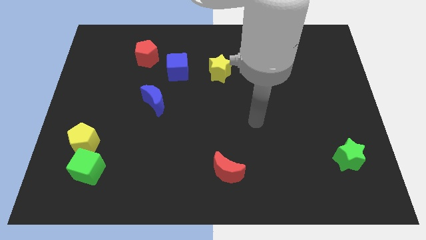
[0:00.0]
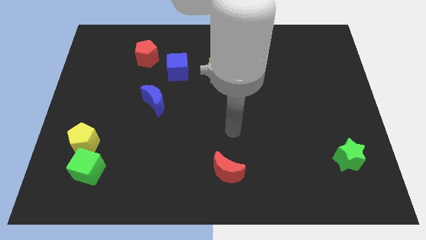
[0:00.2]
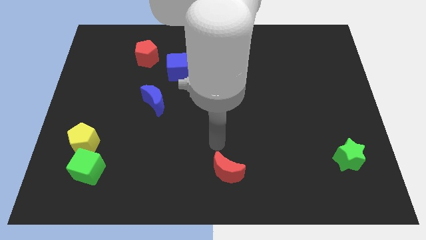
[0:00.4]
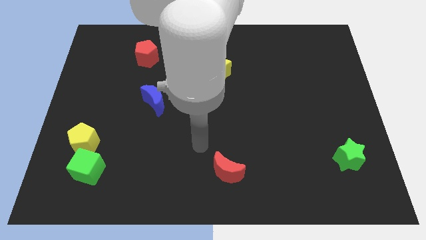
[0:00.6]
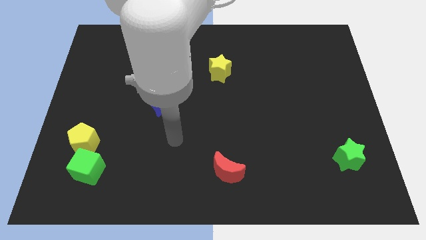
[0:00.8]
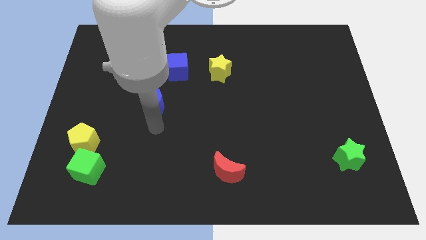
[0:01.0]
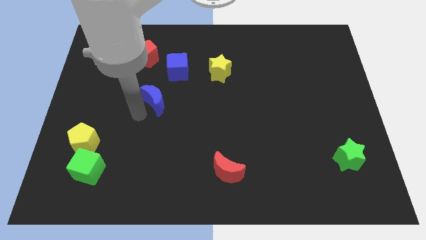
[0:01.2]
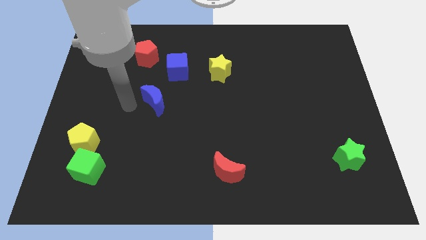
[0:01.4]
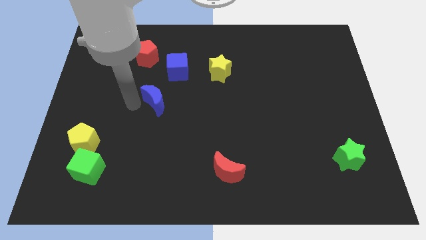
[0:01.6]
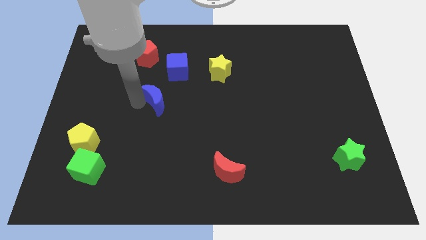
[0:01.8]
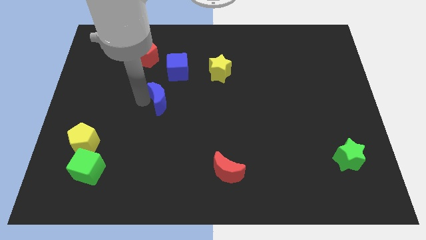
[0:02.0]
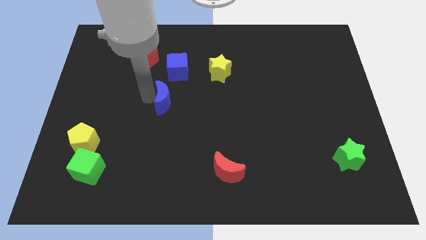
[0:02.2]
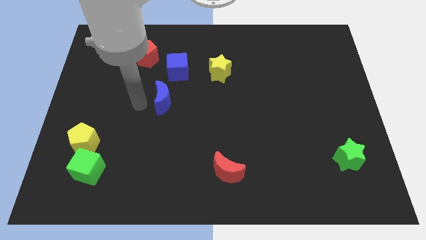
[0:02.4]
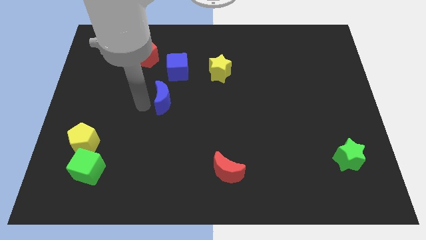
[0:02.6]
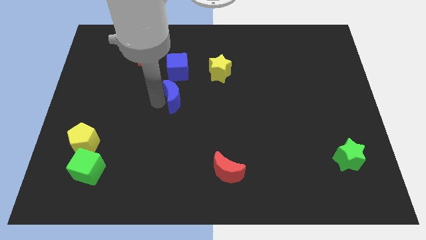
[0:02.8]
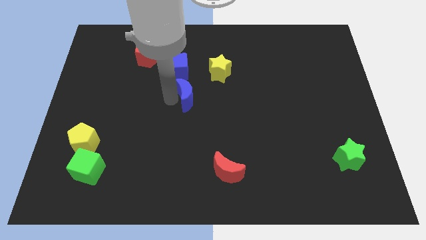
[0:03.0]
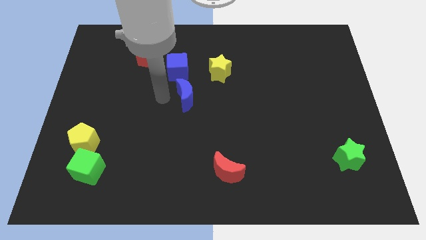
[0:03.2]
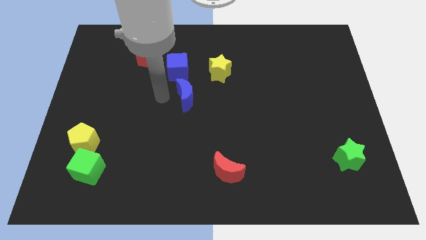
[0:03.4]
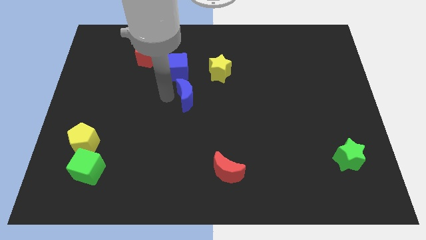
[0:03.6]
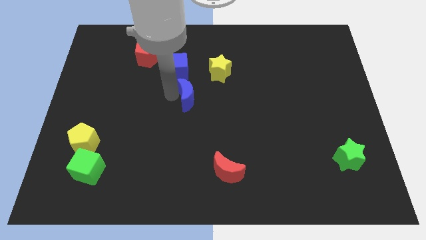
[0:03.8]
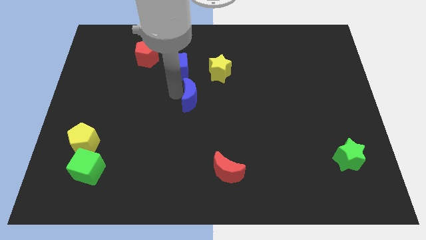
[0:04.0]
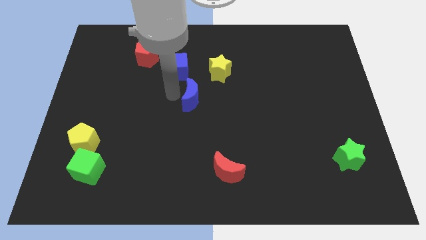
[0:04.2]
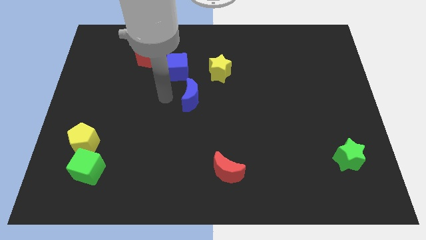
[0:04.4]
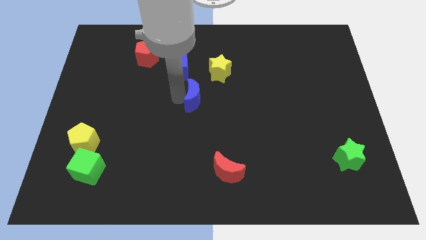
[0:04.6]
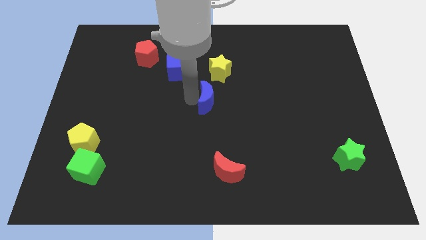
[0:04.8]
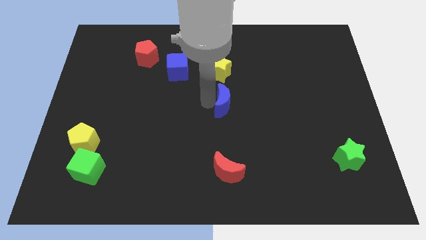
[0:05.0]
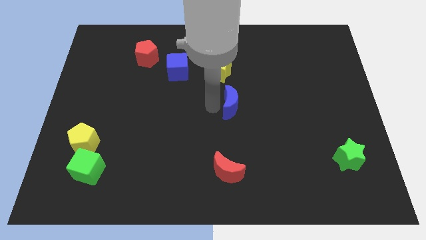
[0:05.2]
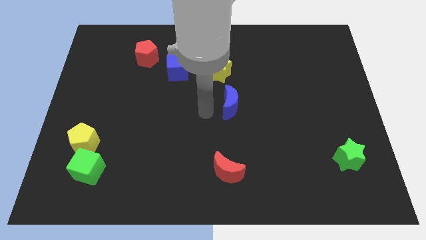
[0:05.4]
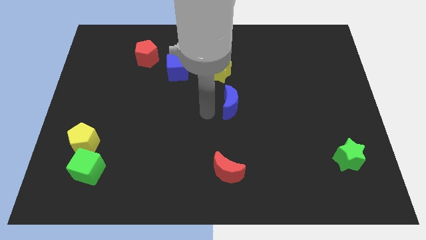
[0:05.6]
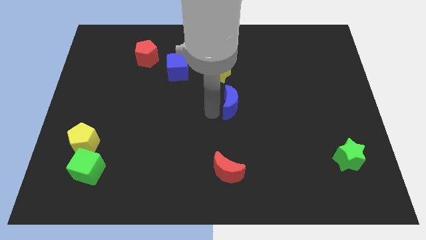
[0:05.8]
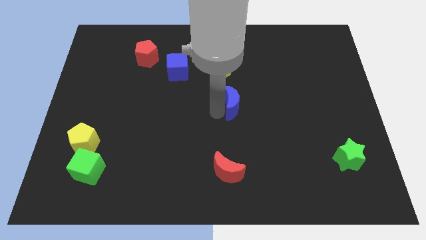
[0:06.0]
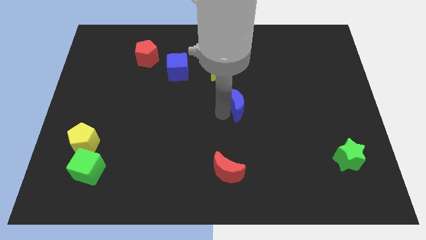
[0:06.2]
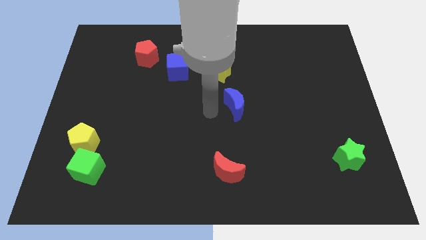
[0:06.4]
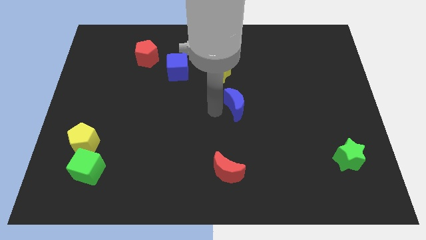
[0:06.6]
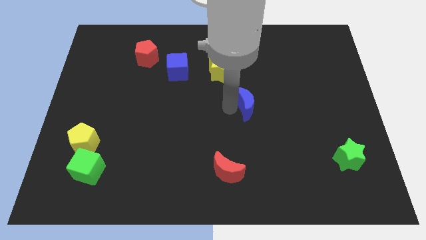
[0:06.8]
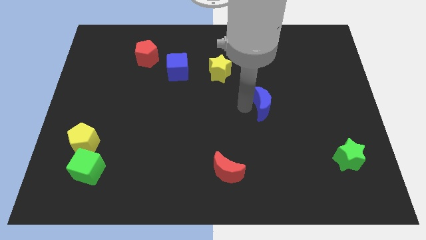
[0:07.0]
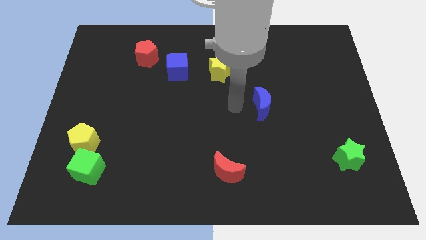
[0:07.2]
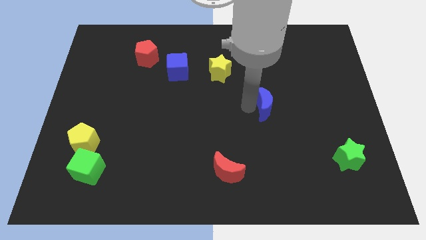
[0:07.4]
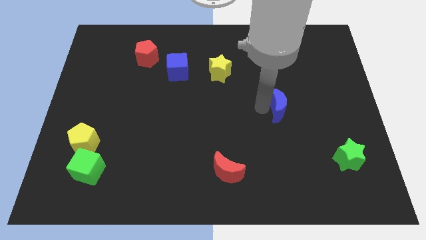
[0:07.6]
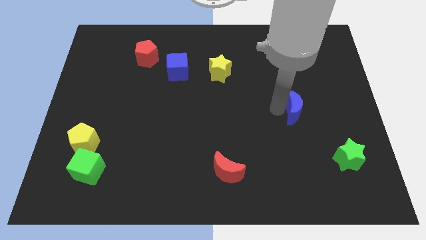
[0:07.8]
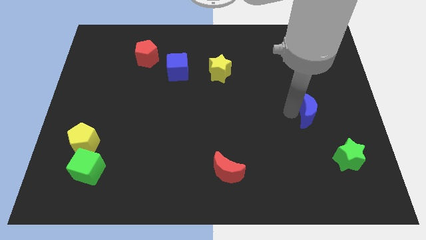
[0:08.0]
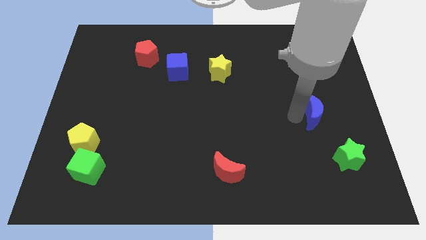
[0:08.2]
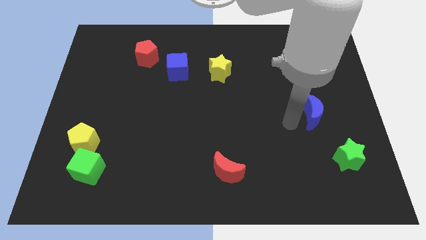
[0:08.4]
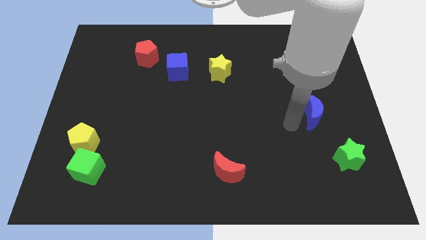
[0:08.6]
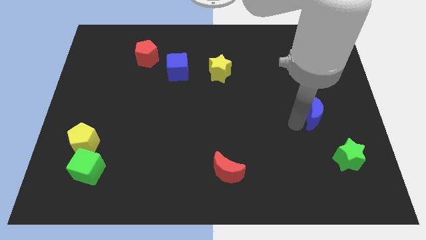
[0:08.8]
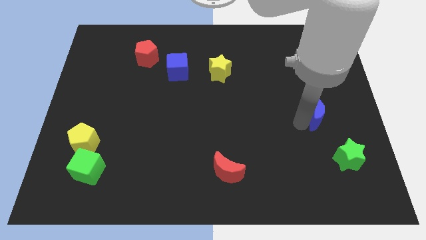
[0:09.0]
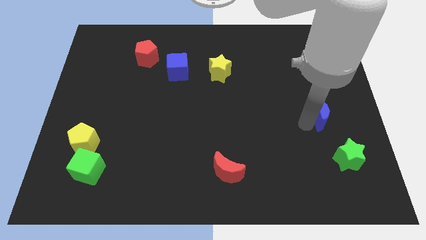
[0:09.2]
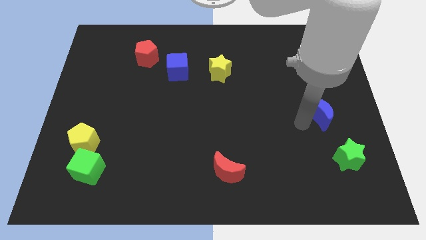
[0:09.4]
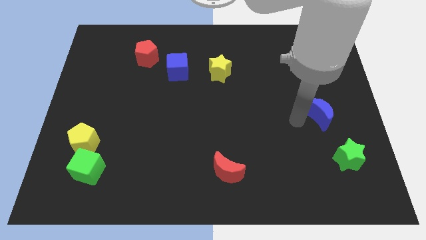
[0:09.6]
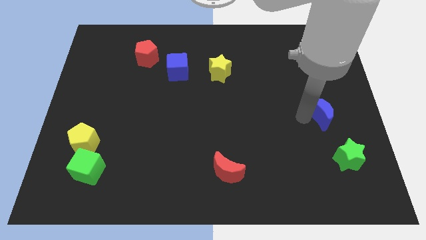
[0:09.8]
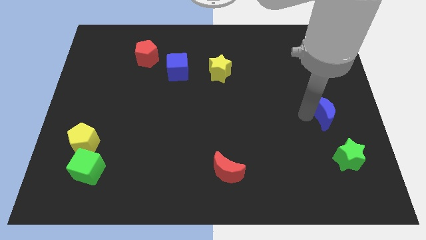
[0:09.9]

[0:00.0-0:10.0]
move the blue moon to the center right
